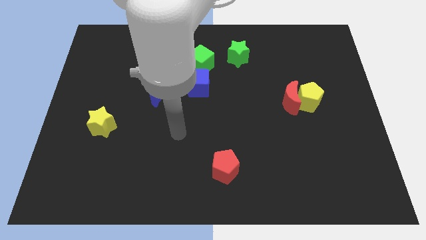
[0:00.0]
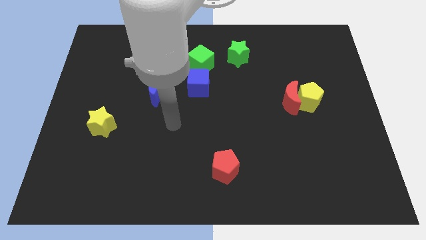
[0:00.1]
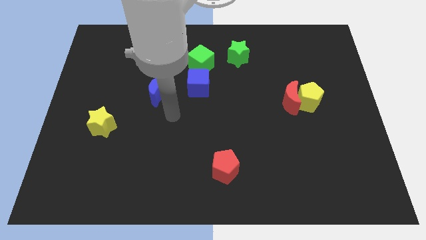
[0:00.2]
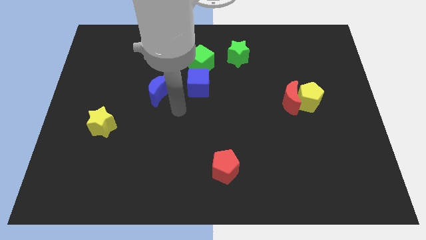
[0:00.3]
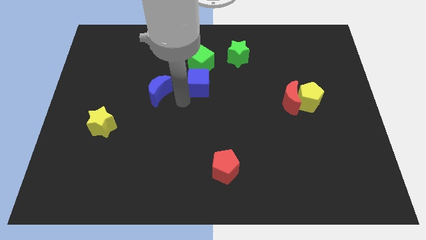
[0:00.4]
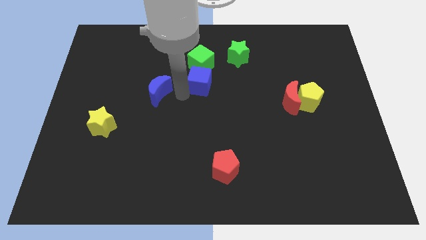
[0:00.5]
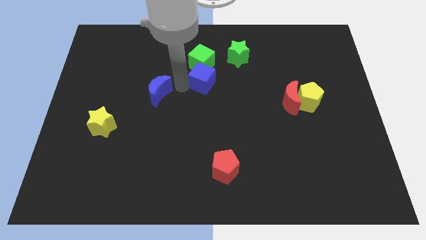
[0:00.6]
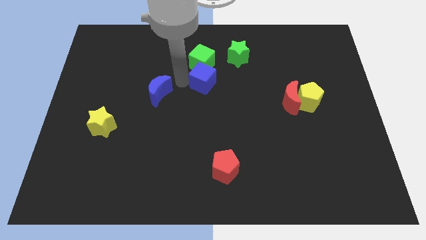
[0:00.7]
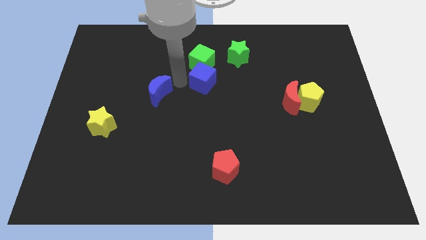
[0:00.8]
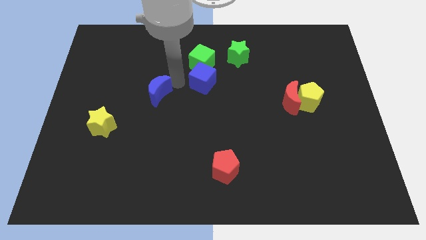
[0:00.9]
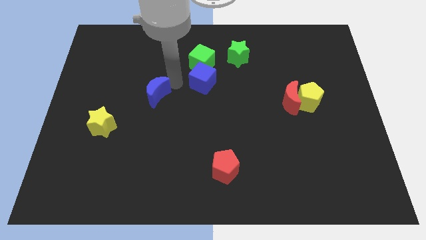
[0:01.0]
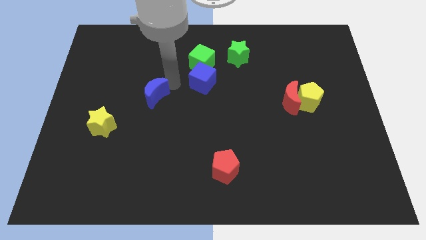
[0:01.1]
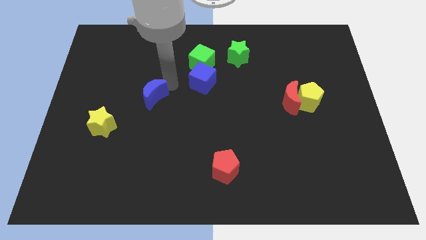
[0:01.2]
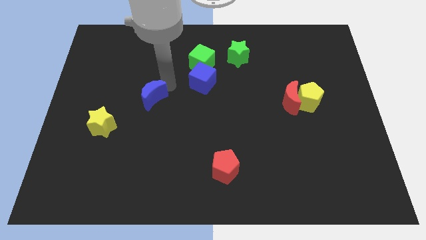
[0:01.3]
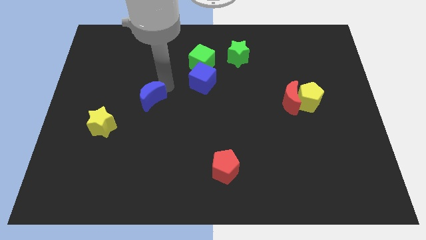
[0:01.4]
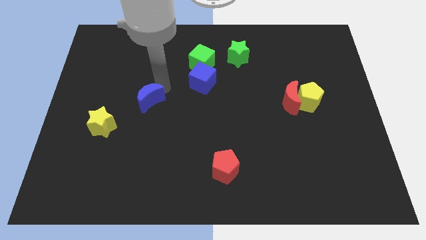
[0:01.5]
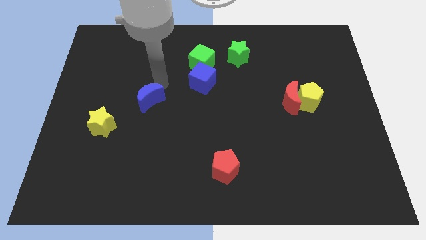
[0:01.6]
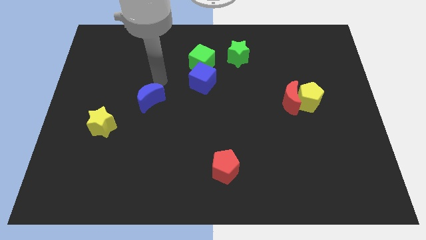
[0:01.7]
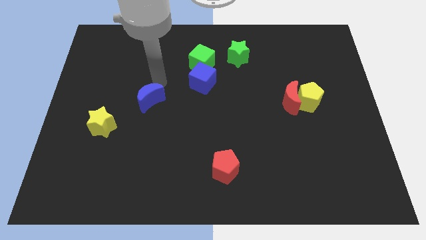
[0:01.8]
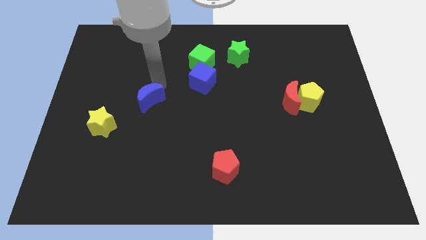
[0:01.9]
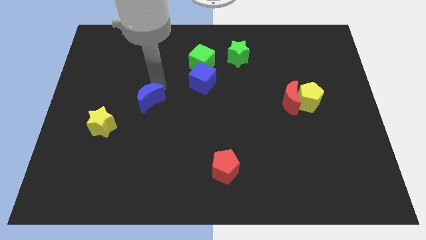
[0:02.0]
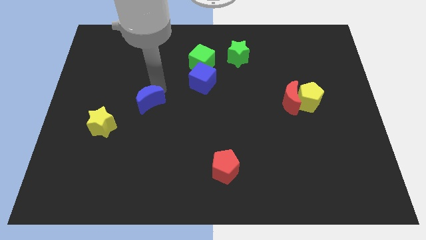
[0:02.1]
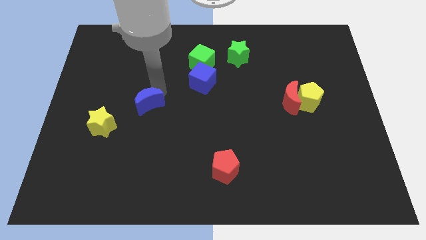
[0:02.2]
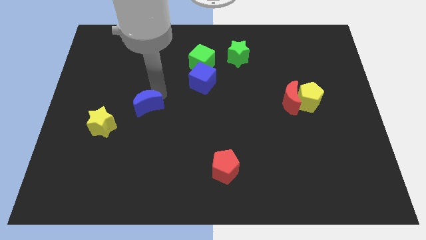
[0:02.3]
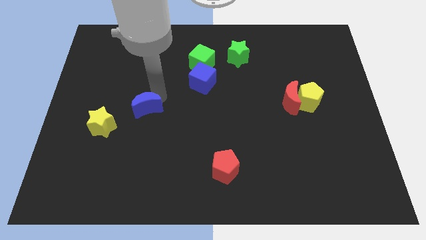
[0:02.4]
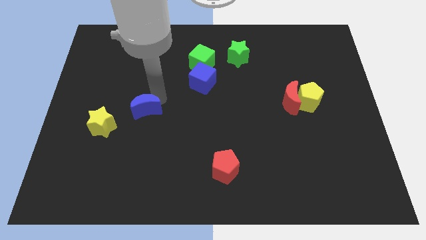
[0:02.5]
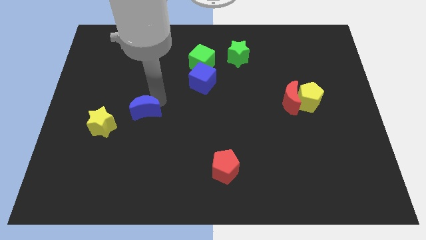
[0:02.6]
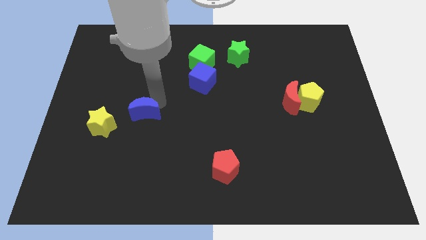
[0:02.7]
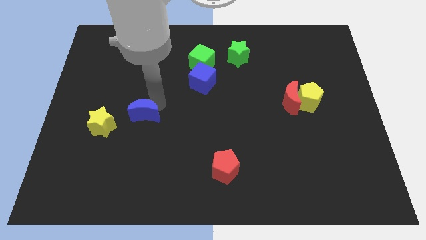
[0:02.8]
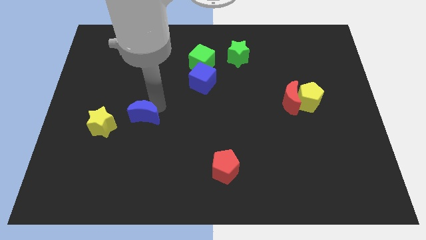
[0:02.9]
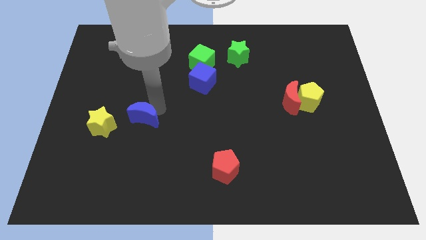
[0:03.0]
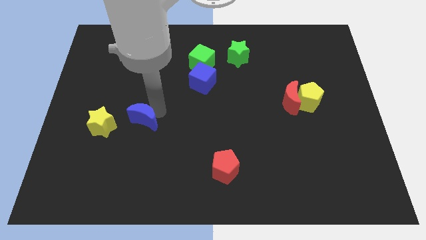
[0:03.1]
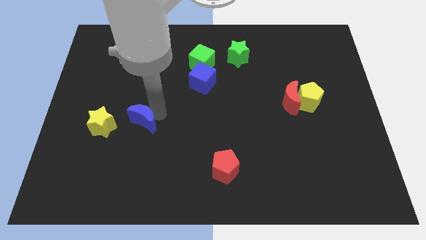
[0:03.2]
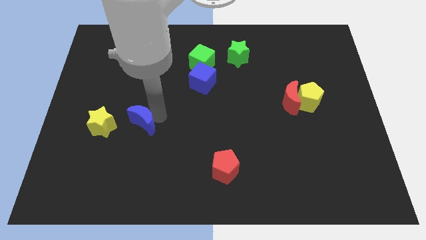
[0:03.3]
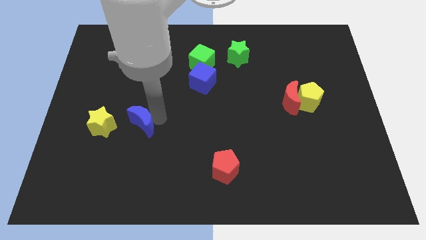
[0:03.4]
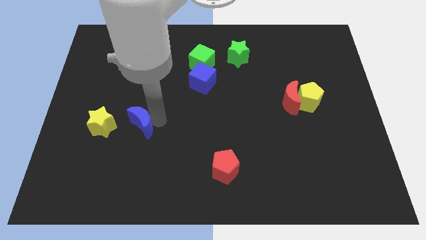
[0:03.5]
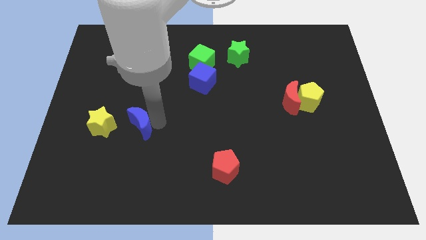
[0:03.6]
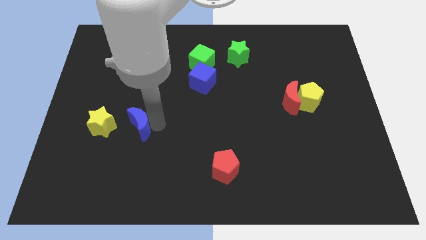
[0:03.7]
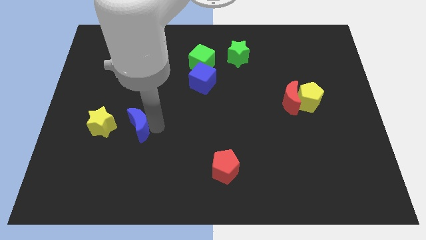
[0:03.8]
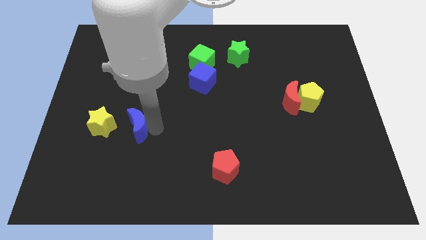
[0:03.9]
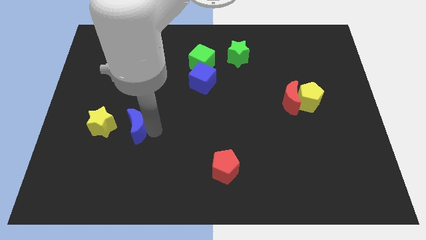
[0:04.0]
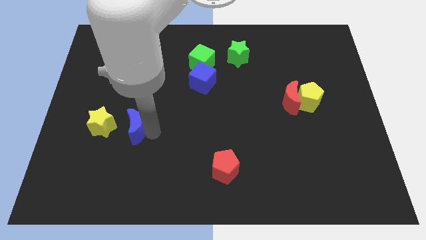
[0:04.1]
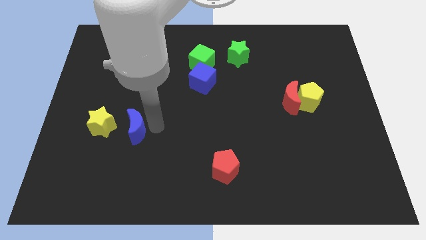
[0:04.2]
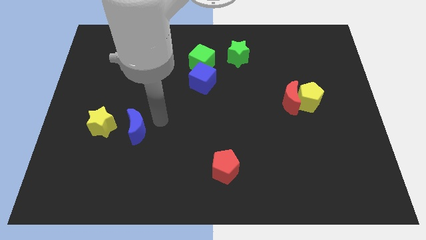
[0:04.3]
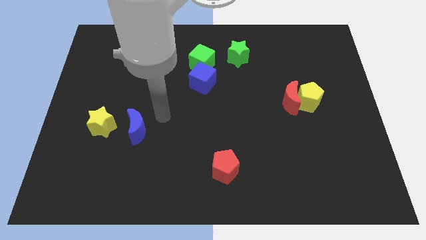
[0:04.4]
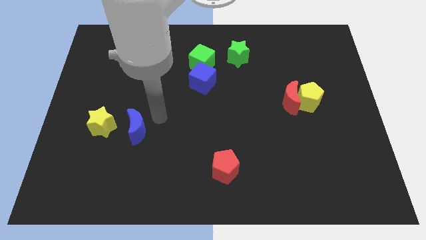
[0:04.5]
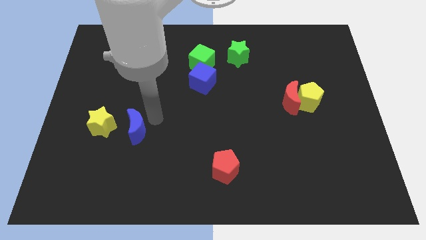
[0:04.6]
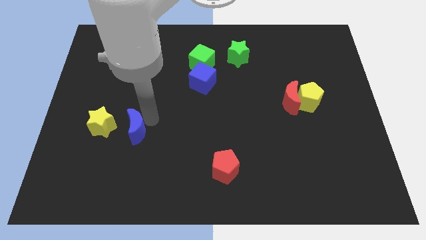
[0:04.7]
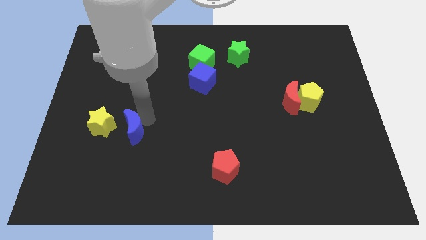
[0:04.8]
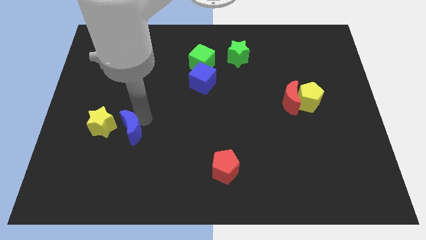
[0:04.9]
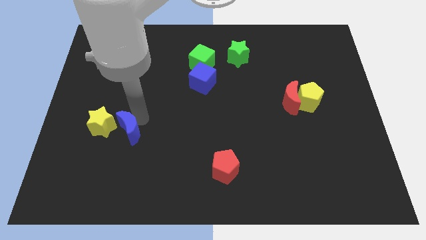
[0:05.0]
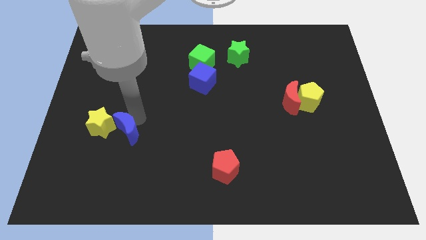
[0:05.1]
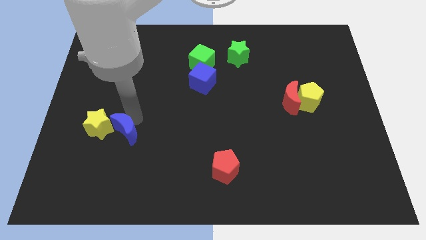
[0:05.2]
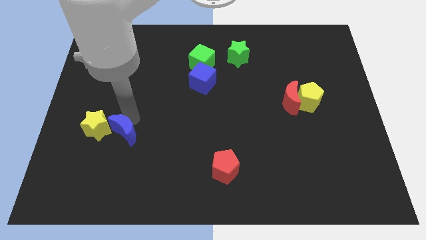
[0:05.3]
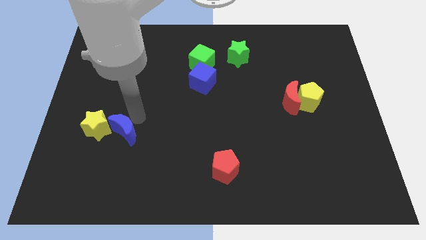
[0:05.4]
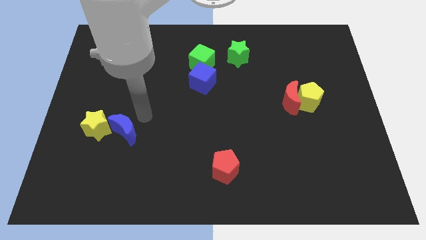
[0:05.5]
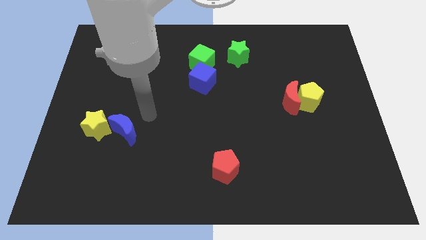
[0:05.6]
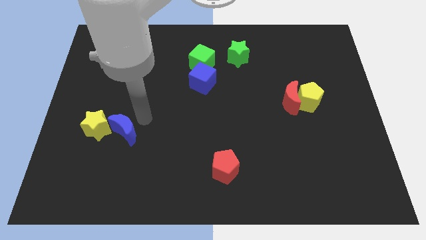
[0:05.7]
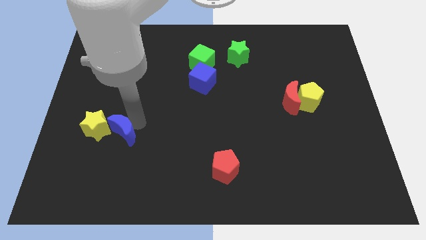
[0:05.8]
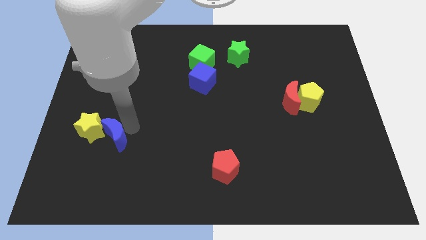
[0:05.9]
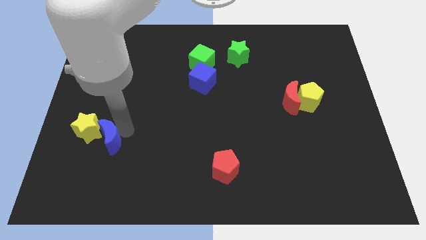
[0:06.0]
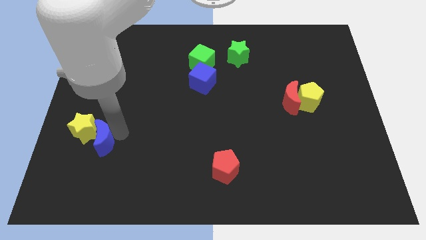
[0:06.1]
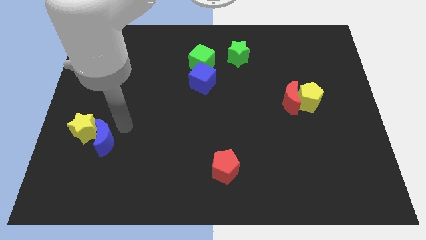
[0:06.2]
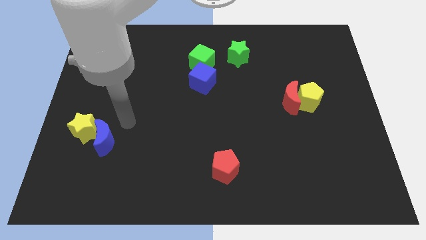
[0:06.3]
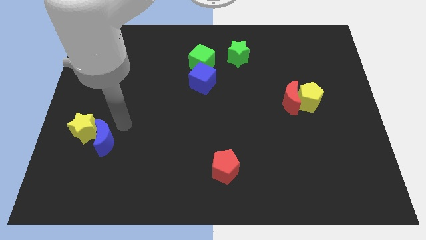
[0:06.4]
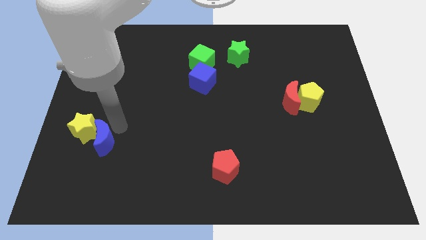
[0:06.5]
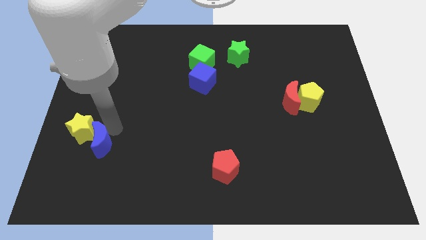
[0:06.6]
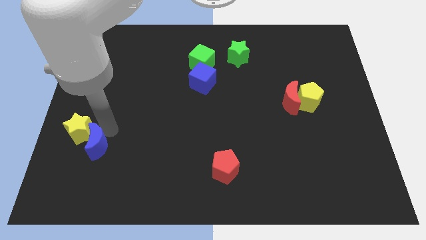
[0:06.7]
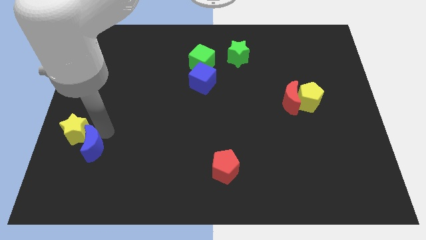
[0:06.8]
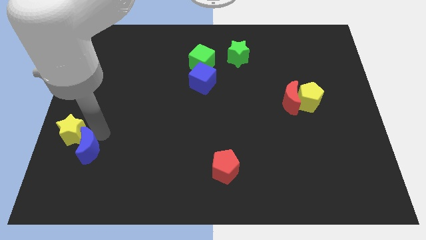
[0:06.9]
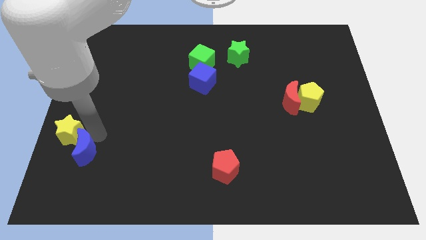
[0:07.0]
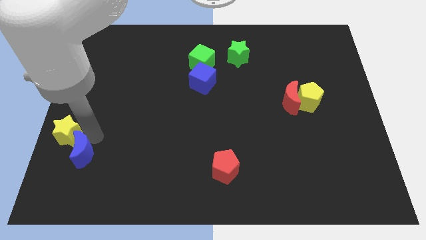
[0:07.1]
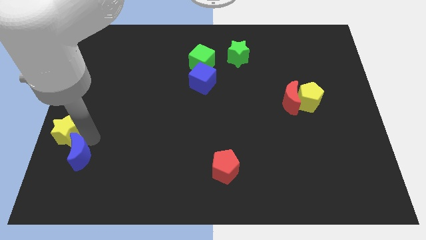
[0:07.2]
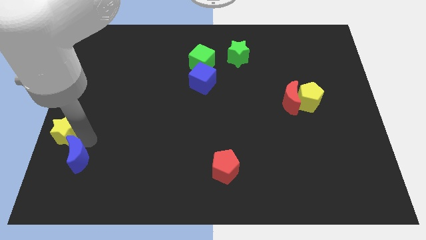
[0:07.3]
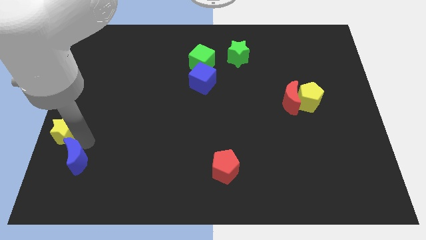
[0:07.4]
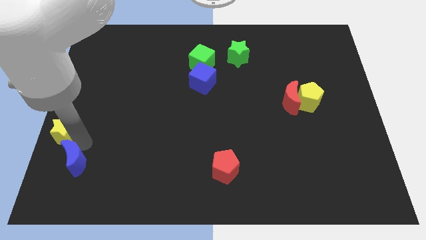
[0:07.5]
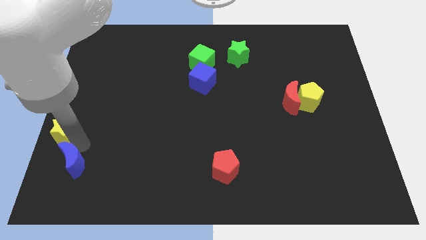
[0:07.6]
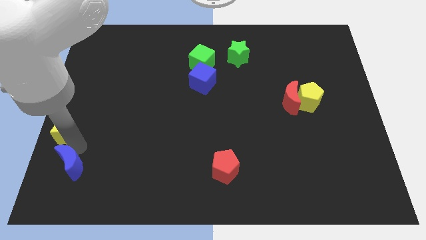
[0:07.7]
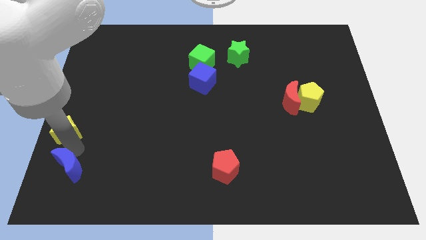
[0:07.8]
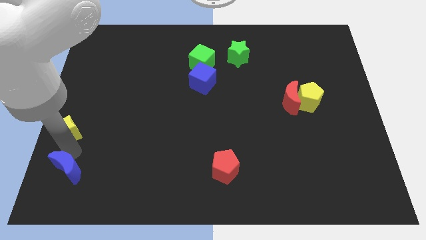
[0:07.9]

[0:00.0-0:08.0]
put the blue moon to the bottom left of the board
